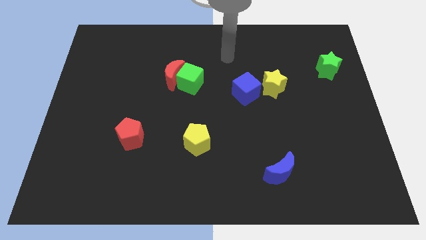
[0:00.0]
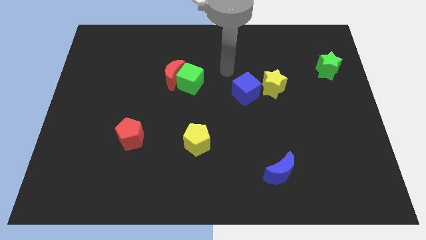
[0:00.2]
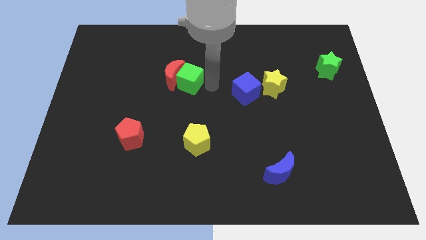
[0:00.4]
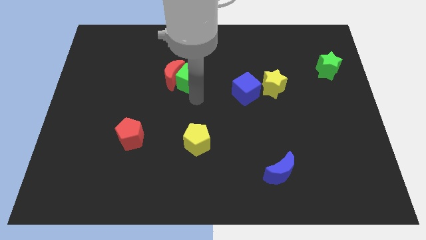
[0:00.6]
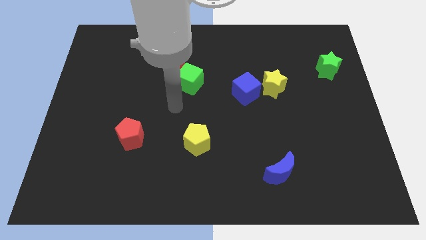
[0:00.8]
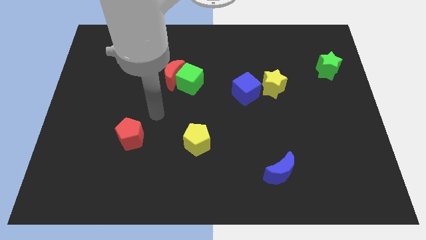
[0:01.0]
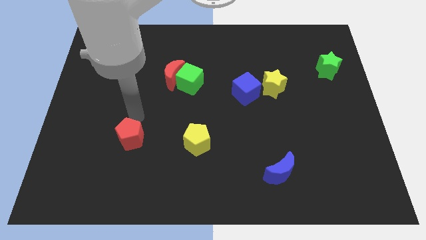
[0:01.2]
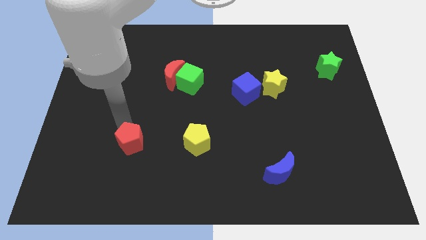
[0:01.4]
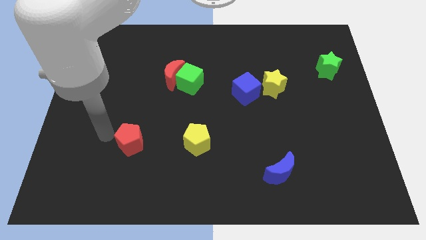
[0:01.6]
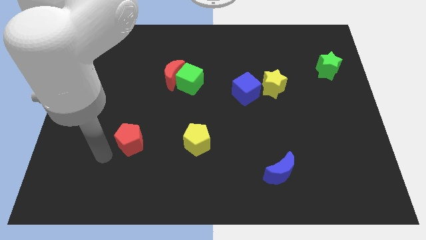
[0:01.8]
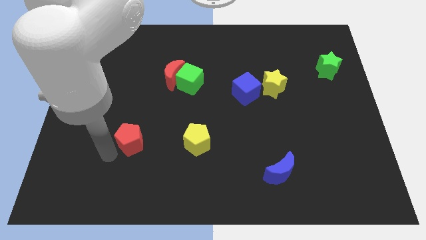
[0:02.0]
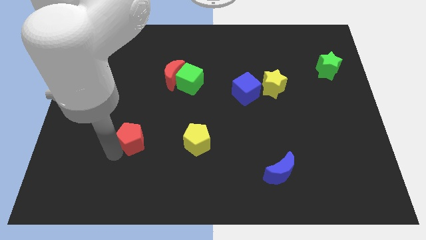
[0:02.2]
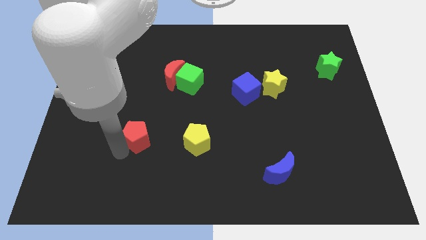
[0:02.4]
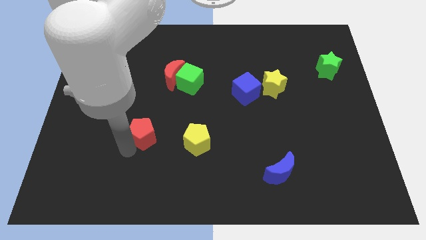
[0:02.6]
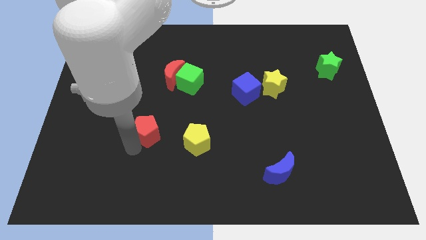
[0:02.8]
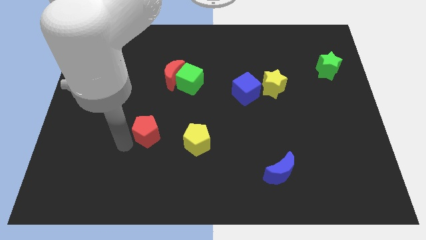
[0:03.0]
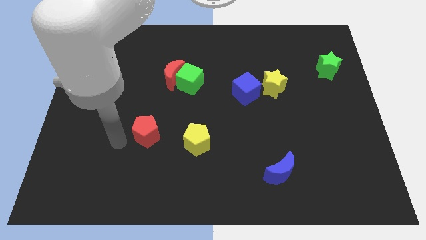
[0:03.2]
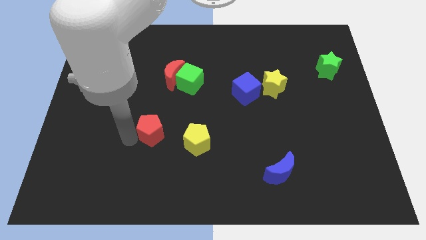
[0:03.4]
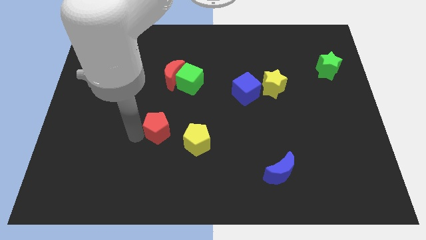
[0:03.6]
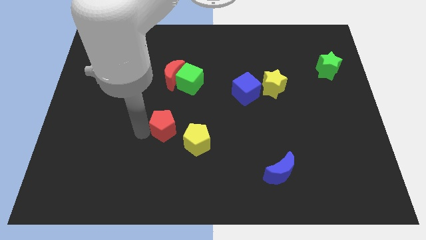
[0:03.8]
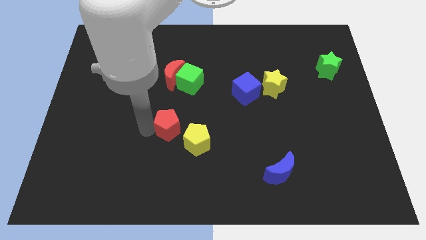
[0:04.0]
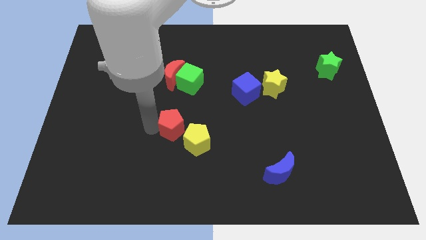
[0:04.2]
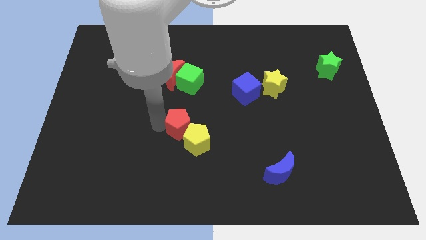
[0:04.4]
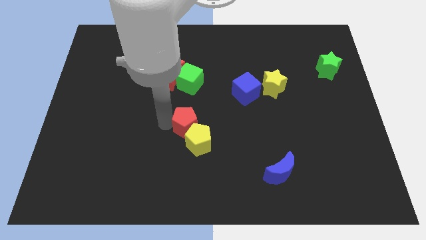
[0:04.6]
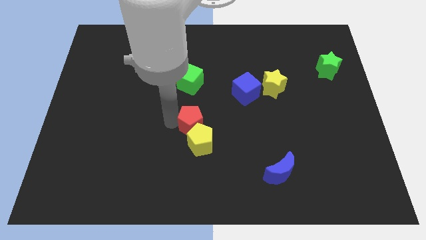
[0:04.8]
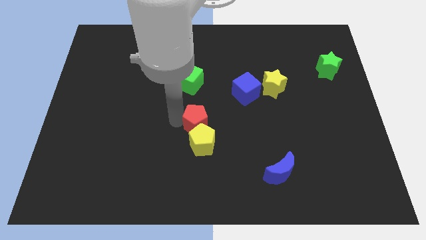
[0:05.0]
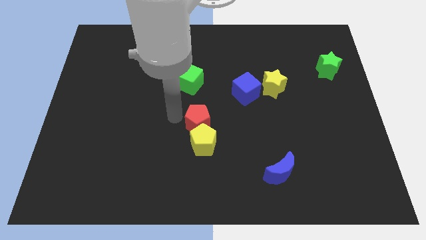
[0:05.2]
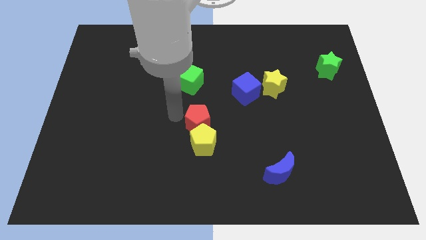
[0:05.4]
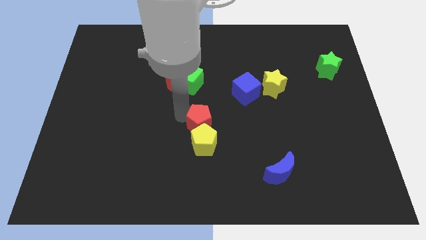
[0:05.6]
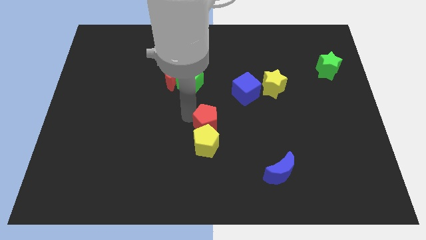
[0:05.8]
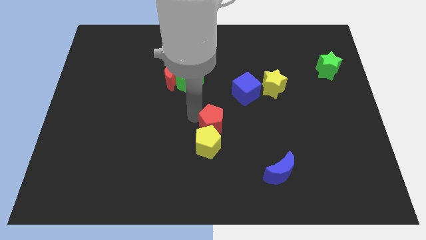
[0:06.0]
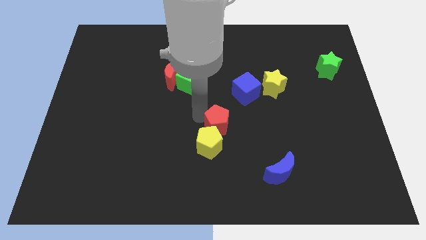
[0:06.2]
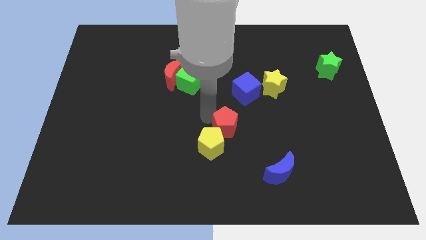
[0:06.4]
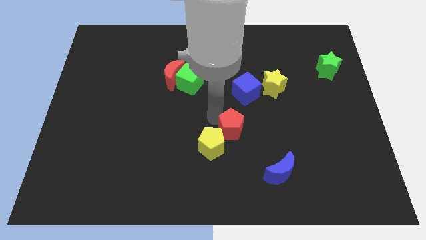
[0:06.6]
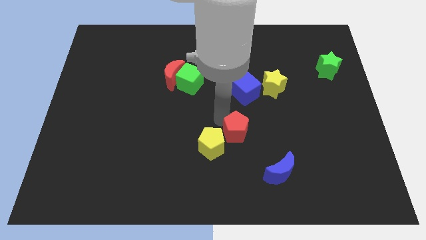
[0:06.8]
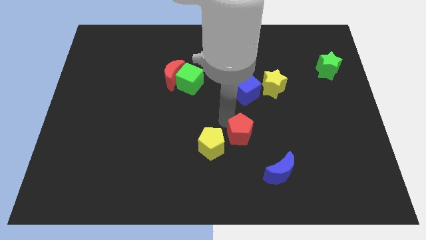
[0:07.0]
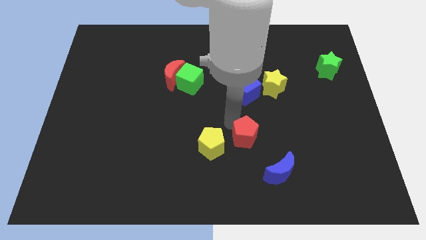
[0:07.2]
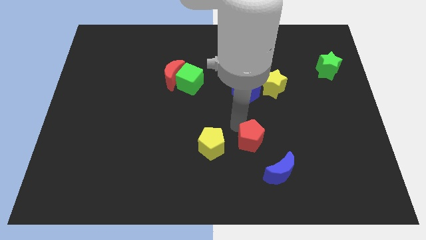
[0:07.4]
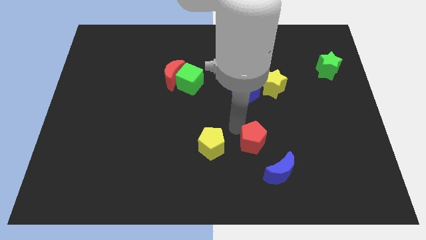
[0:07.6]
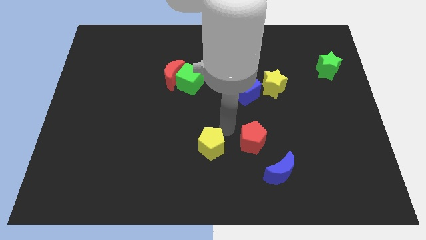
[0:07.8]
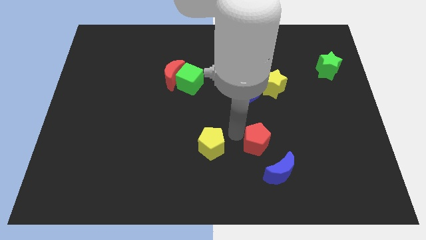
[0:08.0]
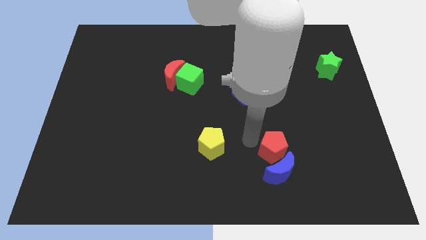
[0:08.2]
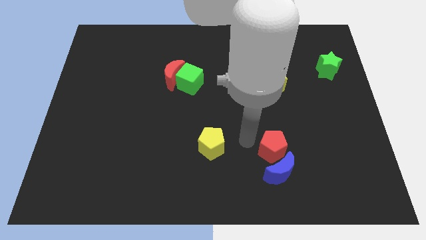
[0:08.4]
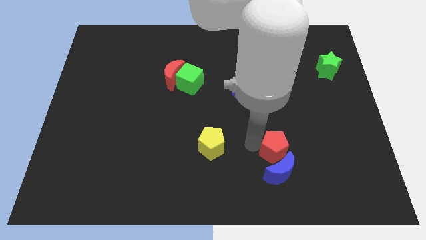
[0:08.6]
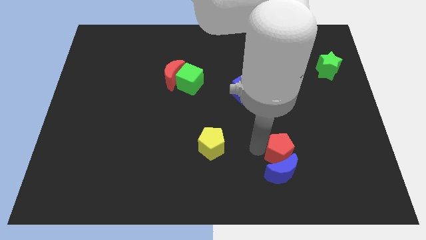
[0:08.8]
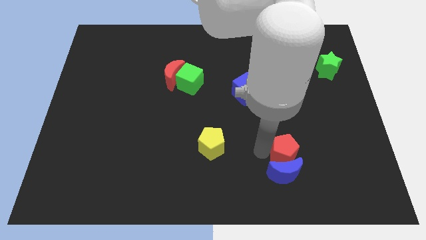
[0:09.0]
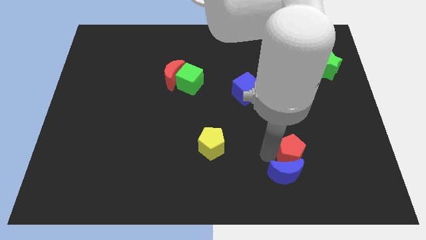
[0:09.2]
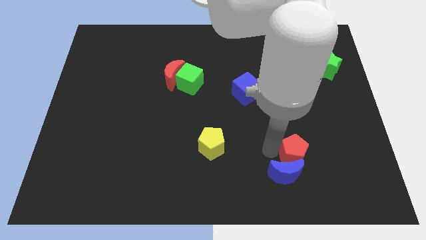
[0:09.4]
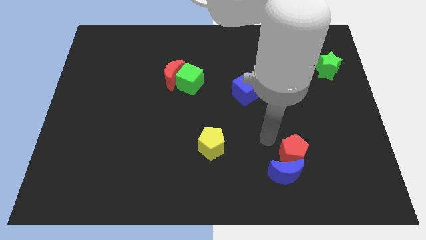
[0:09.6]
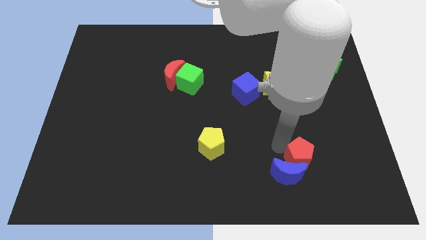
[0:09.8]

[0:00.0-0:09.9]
slide the red pentagon right of the blue moon

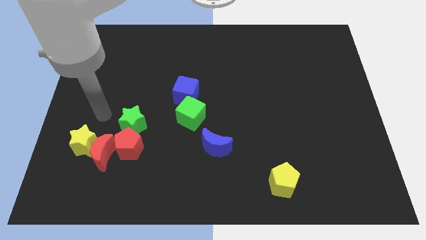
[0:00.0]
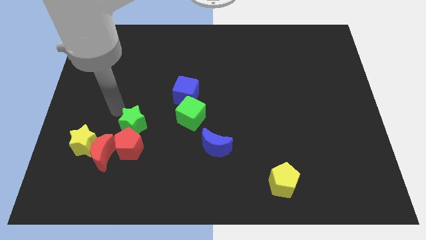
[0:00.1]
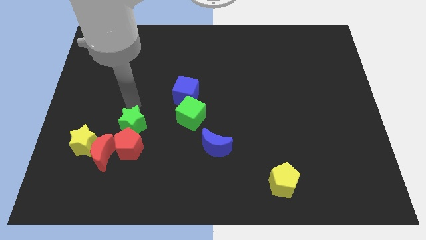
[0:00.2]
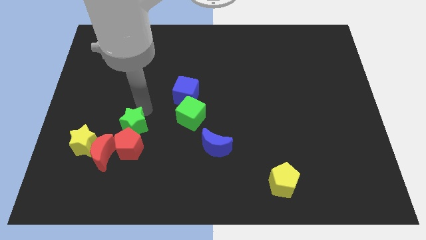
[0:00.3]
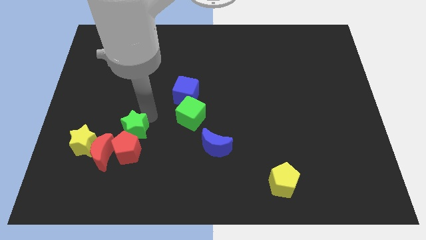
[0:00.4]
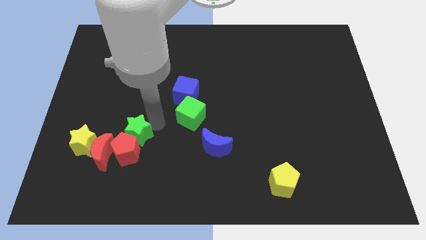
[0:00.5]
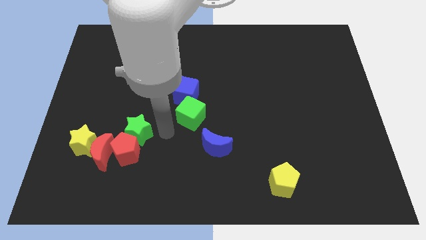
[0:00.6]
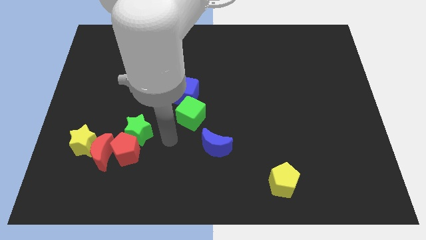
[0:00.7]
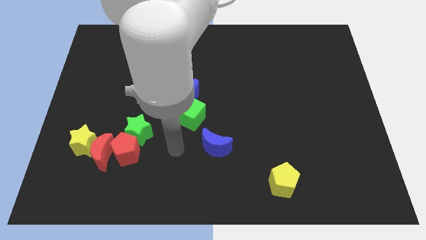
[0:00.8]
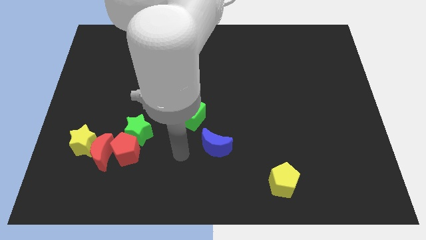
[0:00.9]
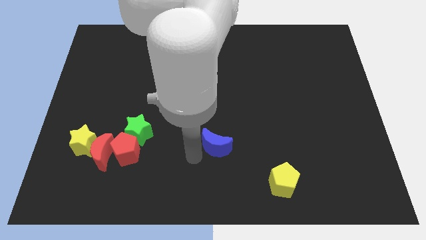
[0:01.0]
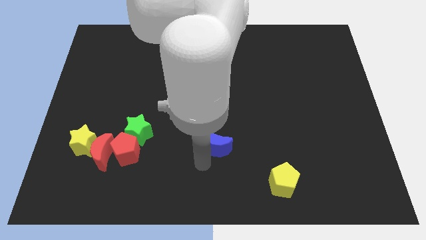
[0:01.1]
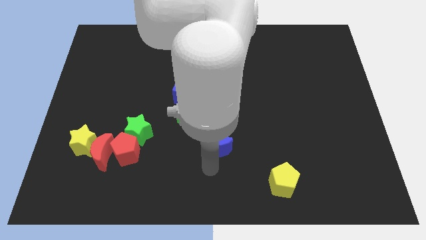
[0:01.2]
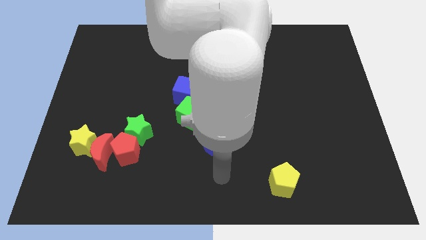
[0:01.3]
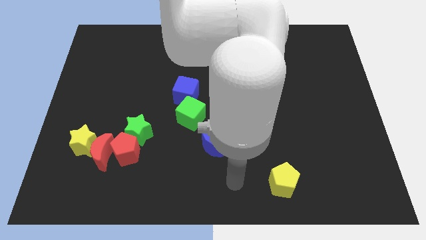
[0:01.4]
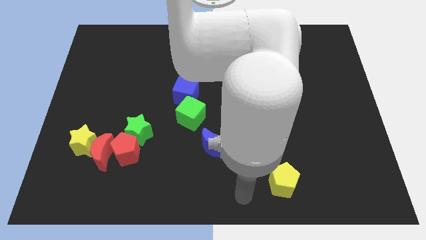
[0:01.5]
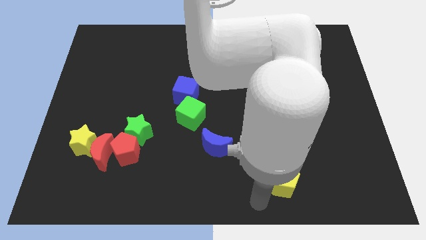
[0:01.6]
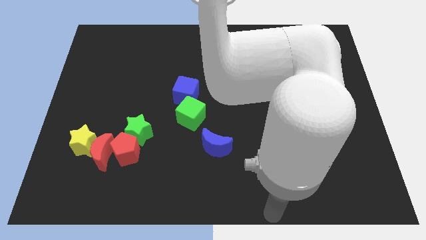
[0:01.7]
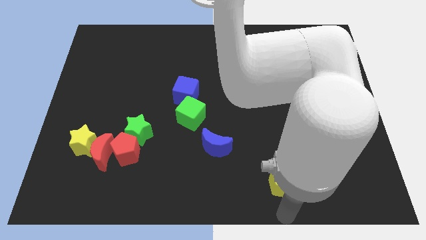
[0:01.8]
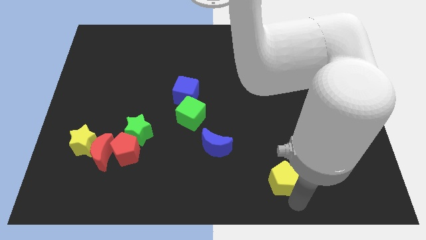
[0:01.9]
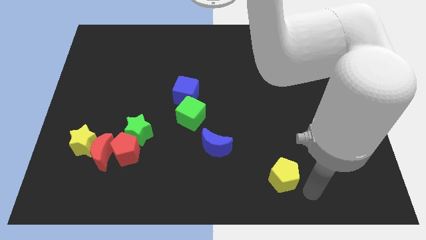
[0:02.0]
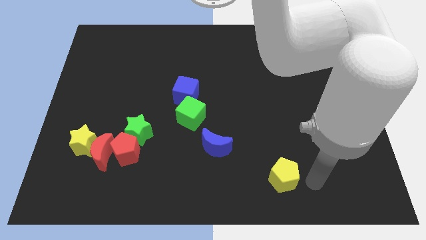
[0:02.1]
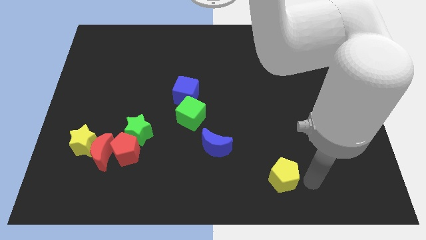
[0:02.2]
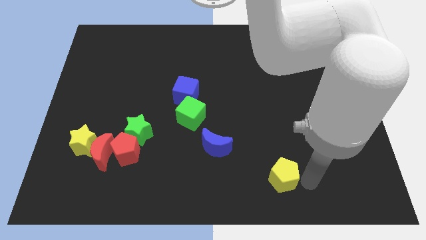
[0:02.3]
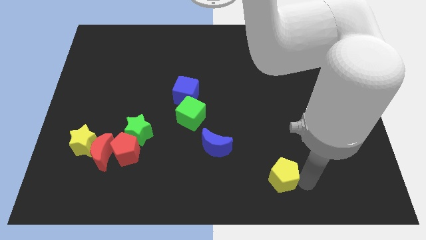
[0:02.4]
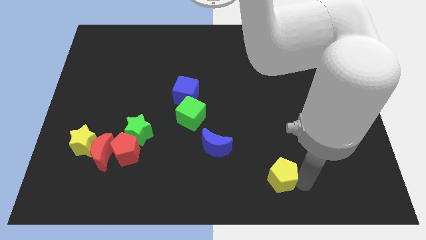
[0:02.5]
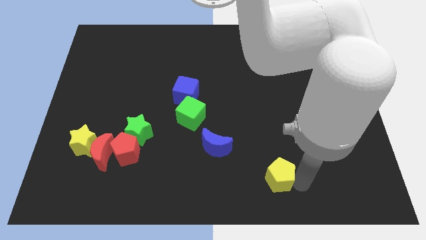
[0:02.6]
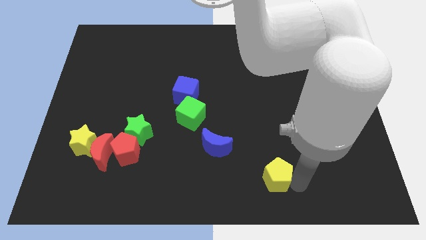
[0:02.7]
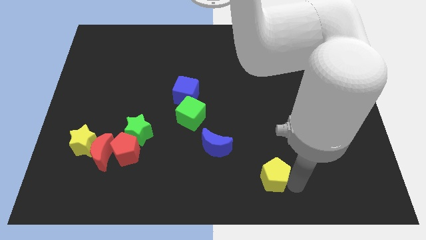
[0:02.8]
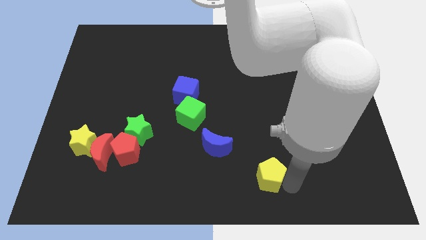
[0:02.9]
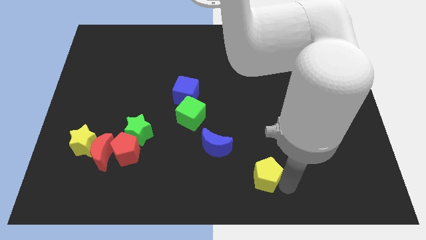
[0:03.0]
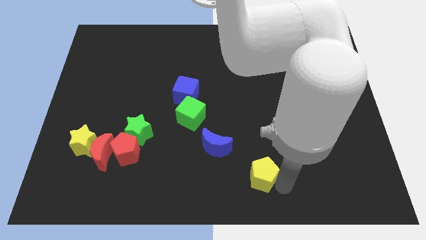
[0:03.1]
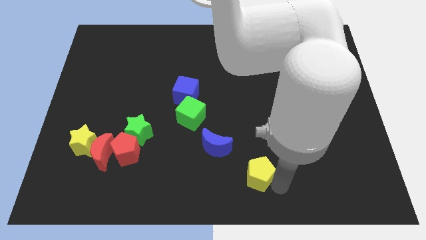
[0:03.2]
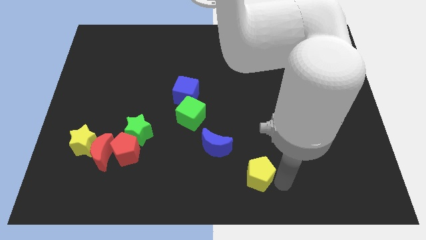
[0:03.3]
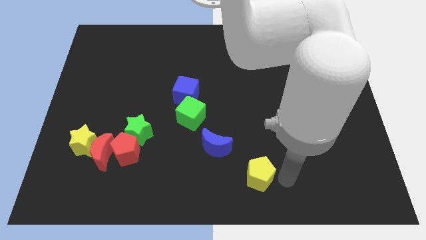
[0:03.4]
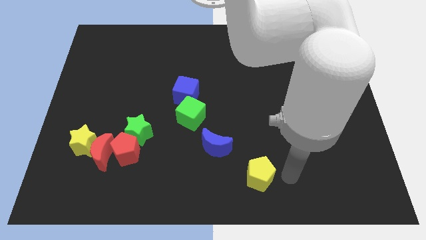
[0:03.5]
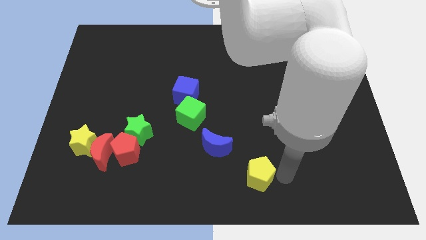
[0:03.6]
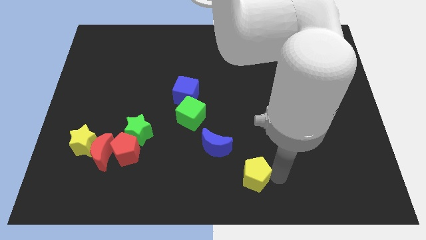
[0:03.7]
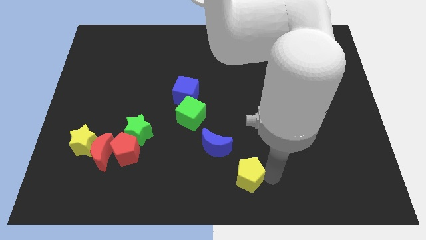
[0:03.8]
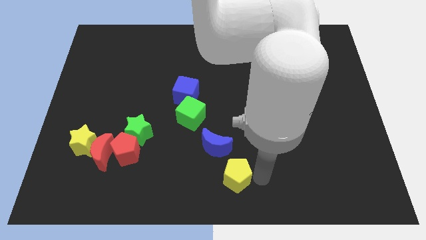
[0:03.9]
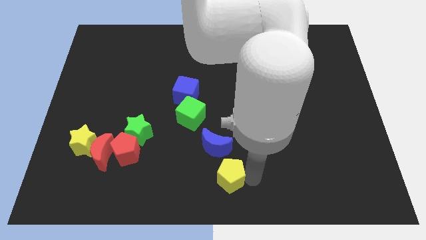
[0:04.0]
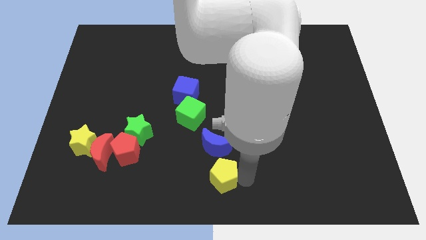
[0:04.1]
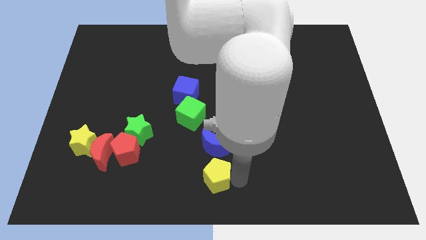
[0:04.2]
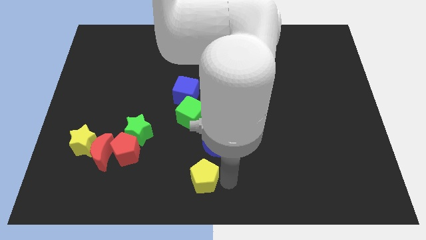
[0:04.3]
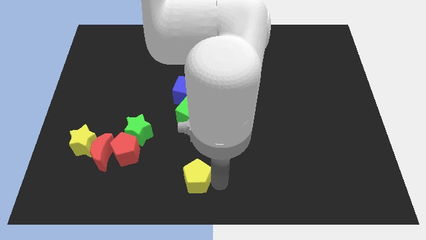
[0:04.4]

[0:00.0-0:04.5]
put the yellow pentagon to the bottom side of the green cube
